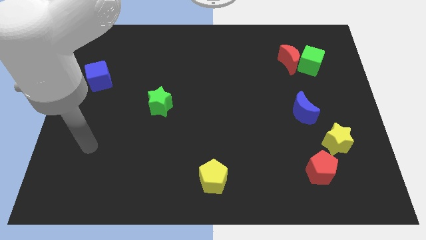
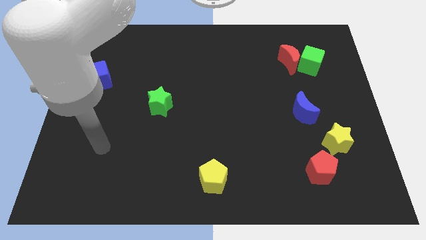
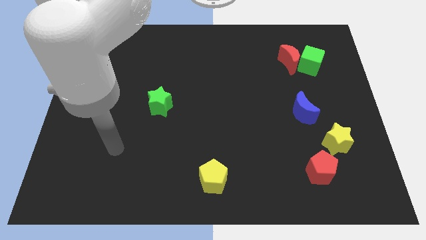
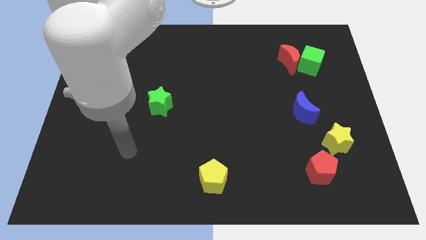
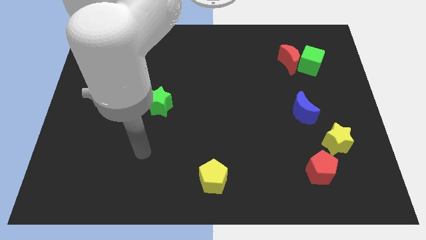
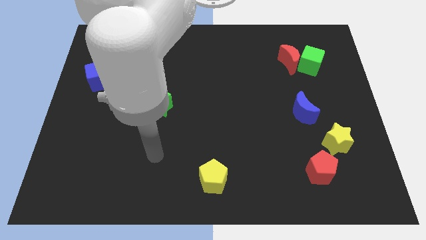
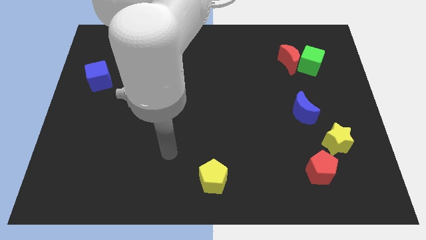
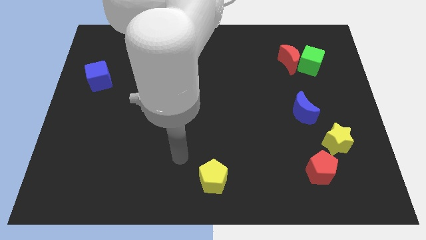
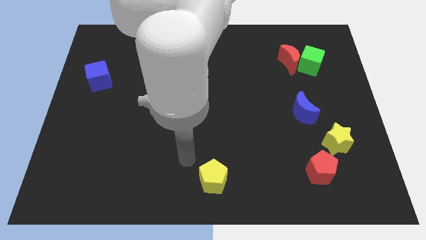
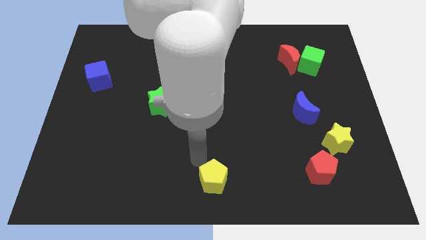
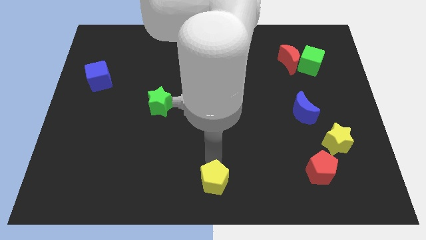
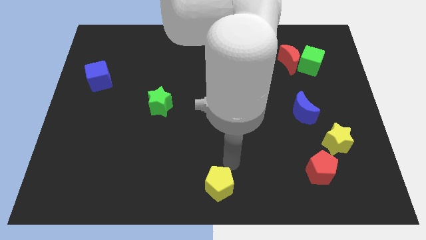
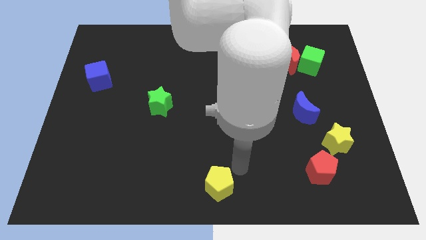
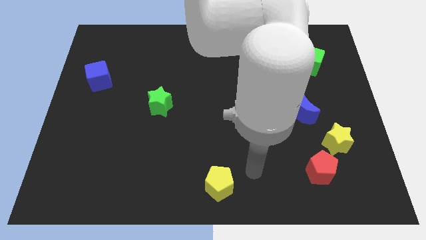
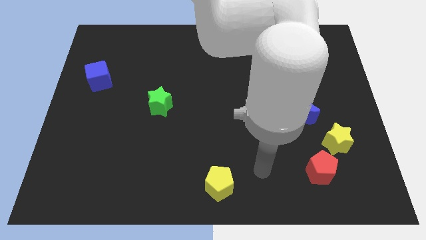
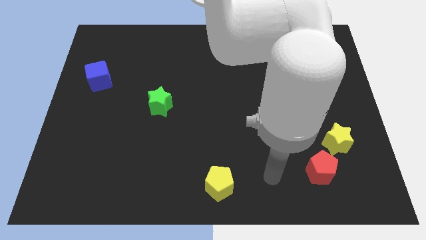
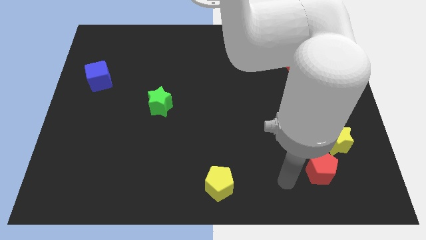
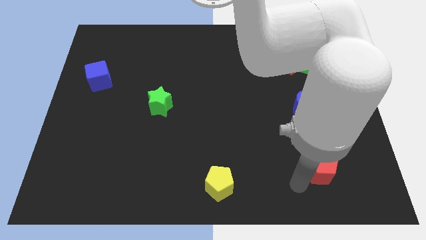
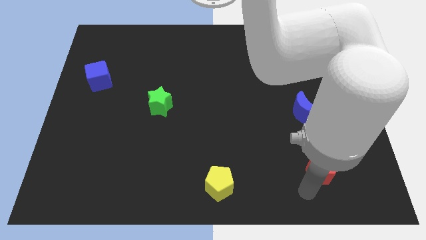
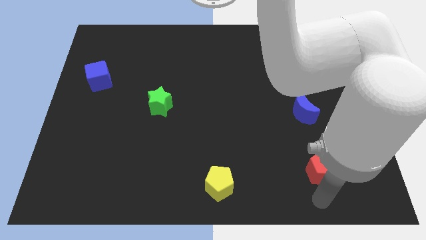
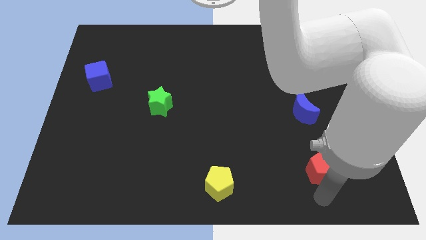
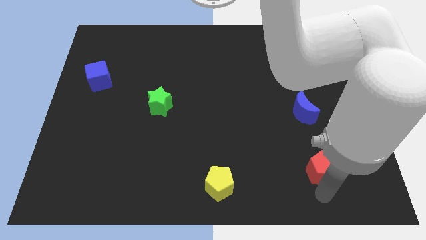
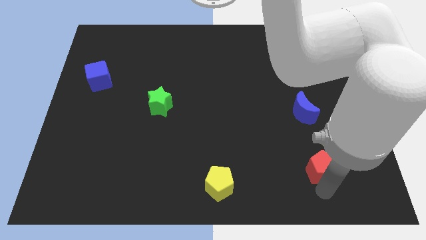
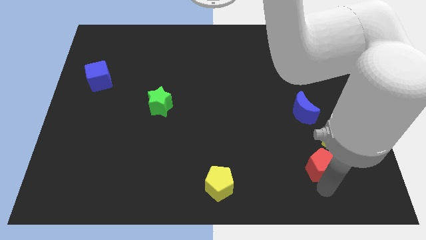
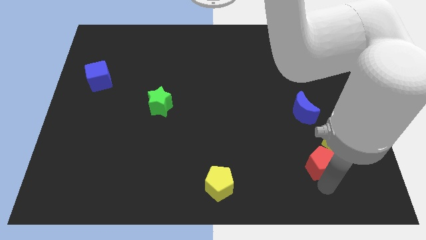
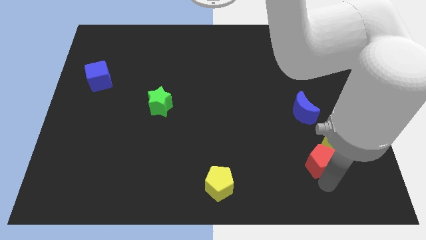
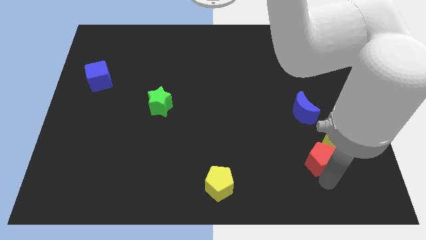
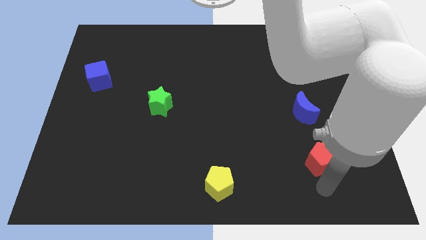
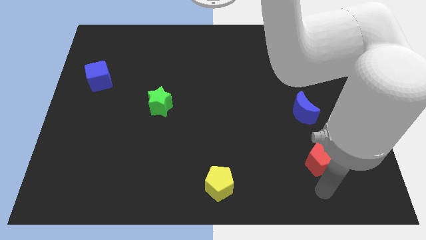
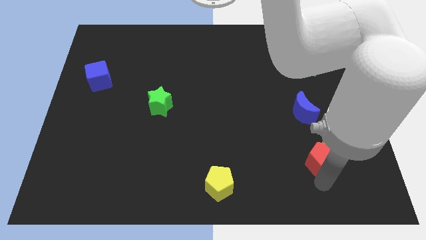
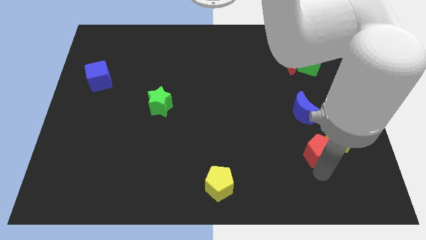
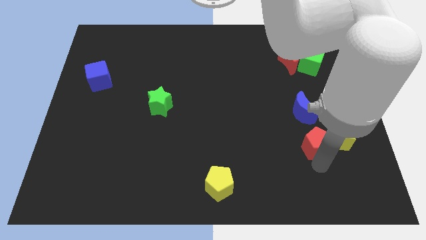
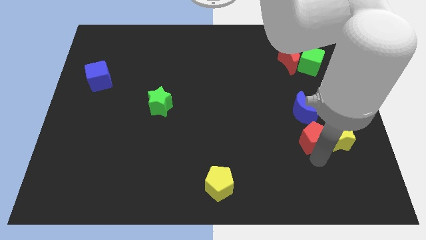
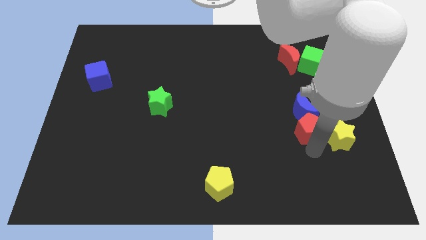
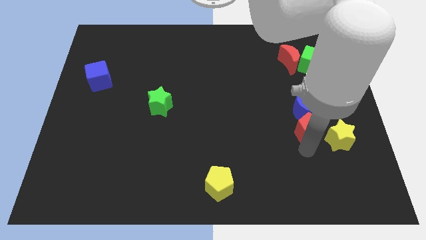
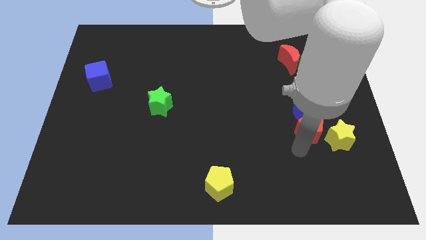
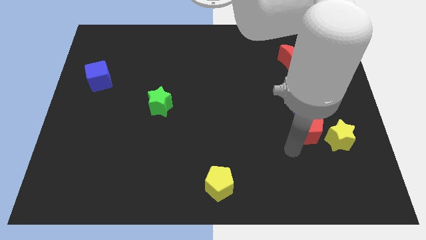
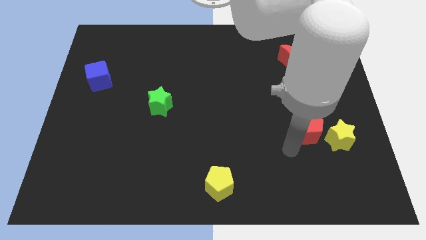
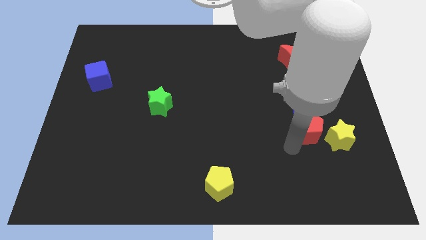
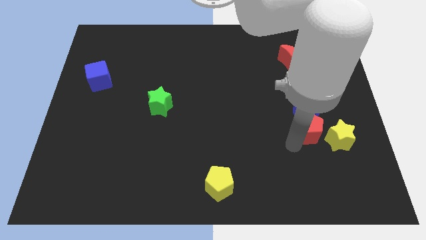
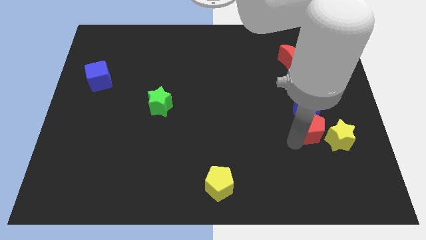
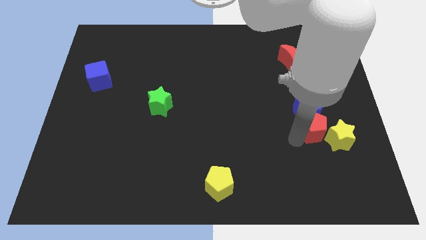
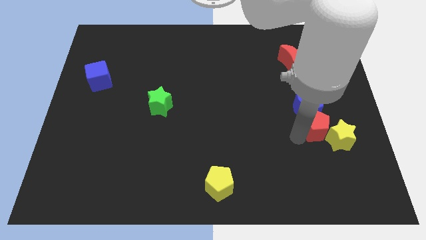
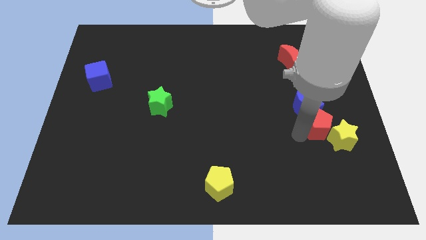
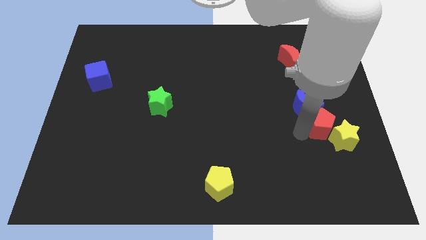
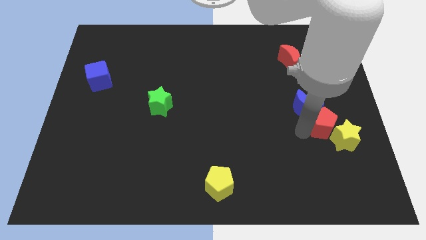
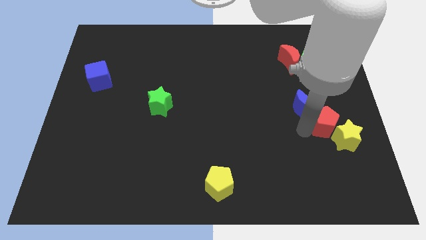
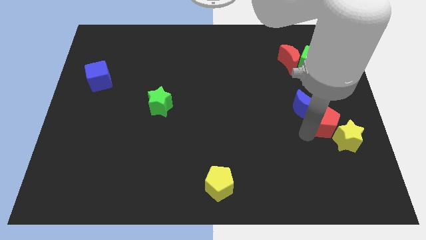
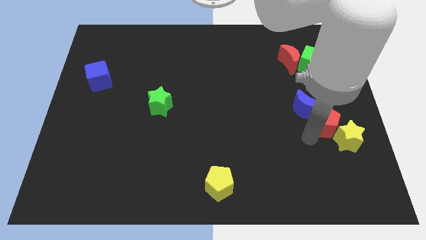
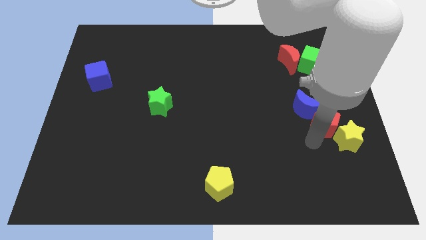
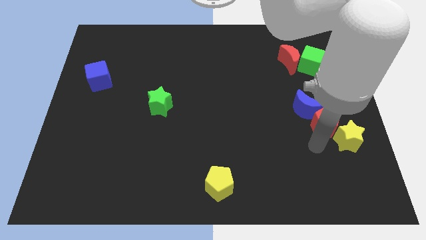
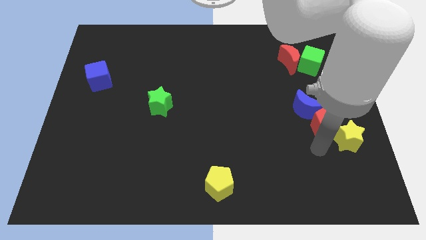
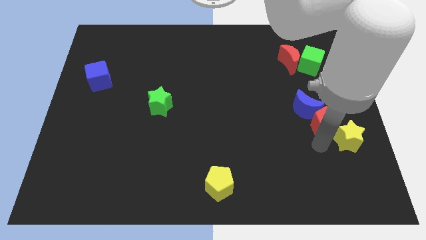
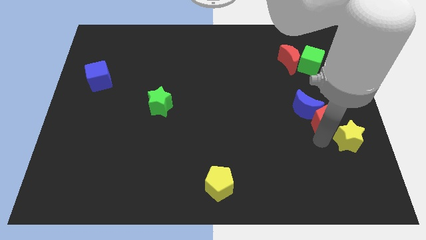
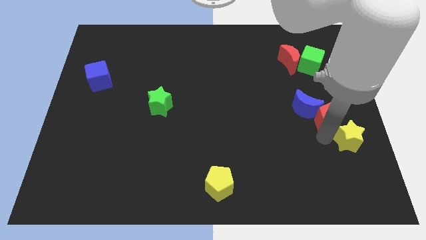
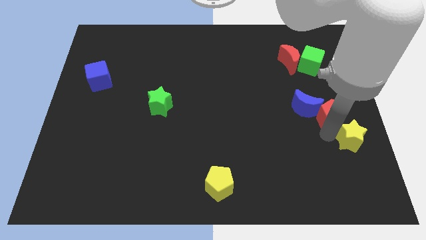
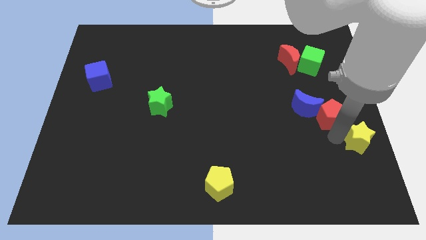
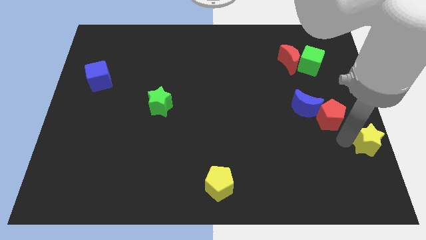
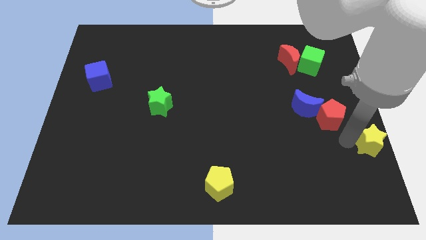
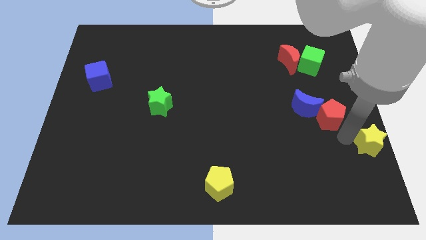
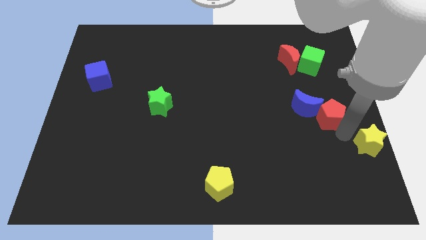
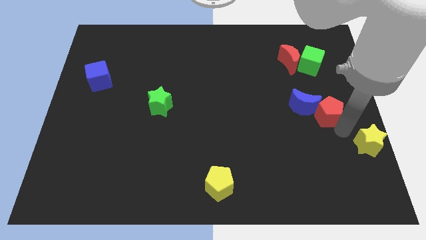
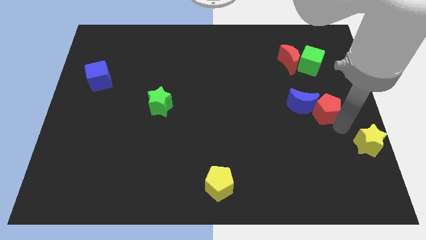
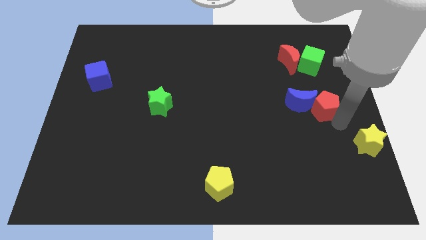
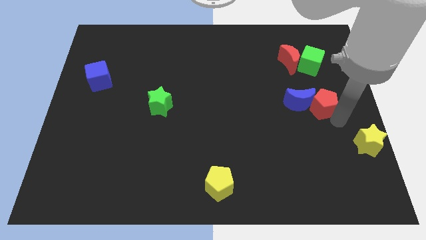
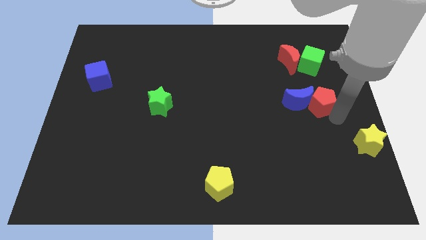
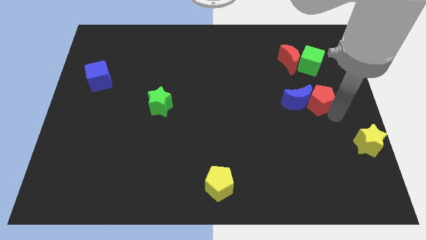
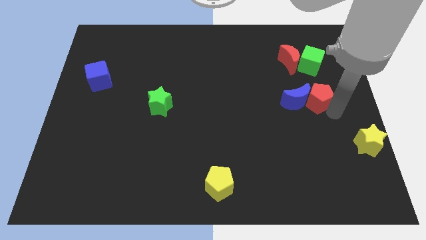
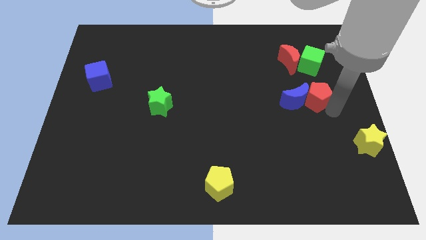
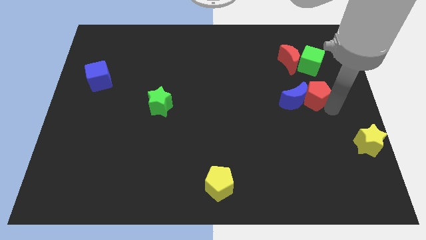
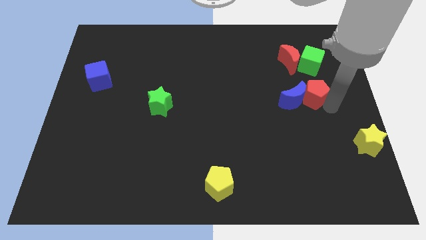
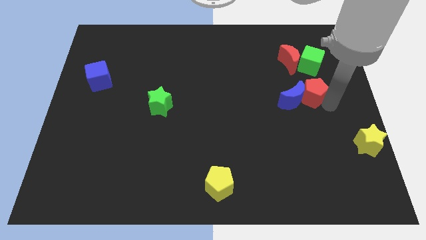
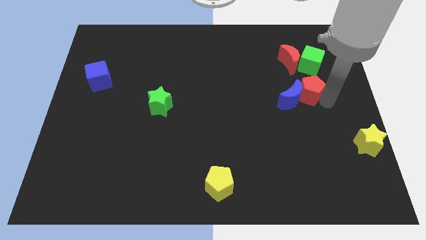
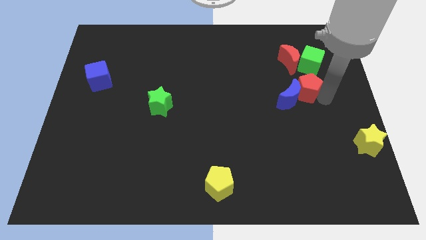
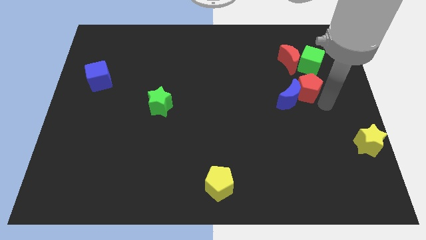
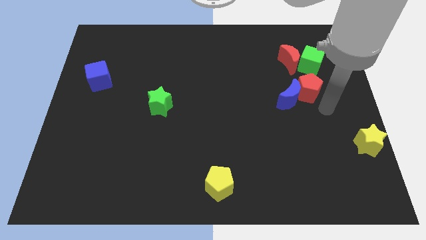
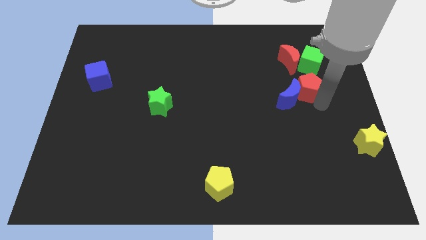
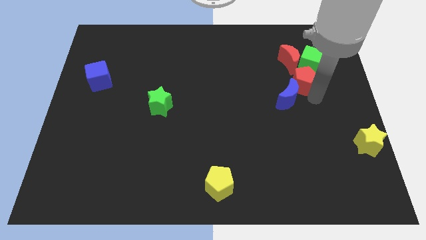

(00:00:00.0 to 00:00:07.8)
slide the red pentagon to the top of the blue moon
